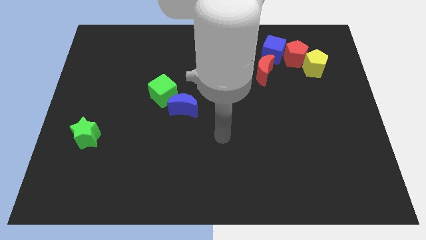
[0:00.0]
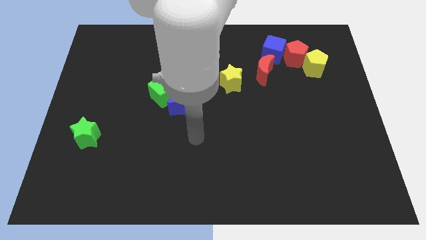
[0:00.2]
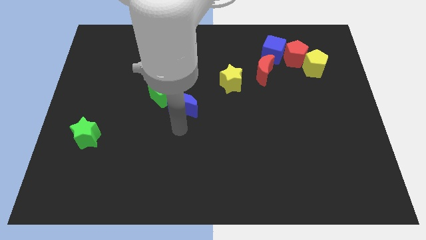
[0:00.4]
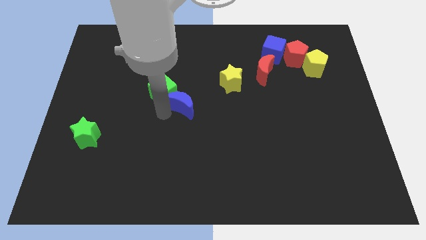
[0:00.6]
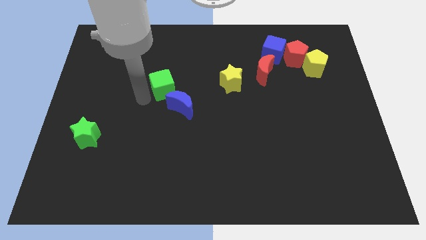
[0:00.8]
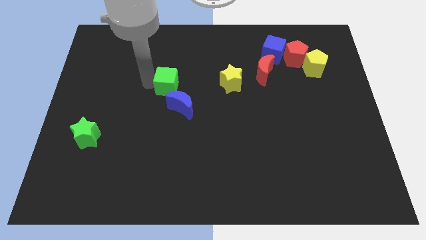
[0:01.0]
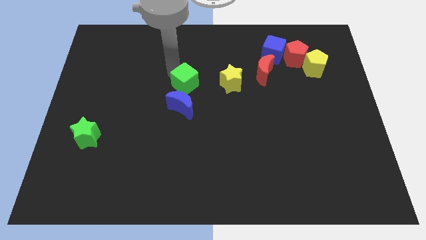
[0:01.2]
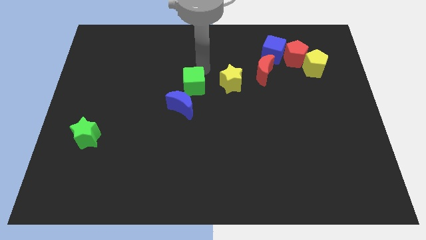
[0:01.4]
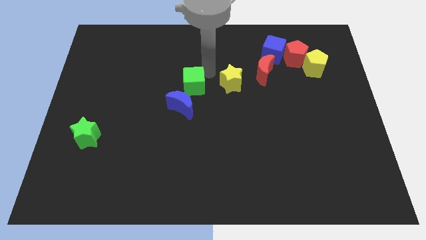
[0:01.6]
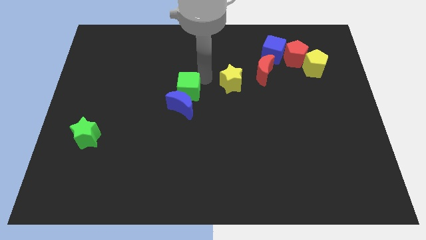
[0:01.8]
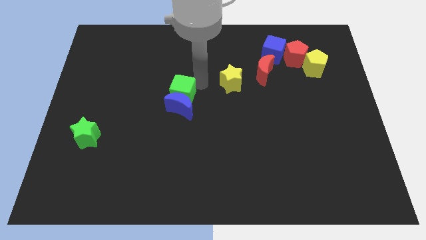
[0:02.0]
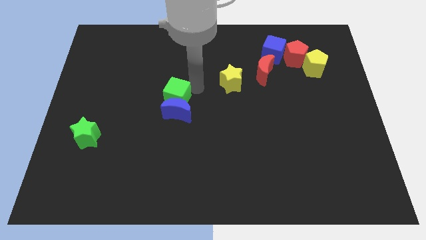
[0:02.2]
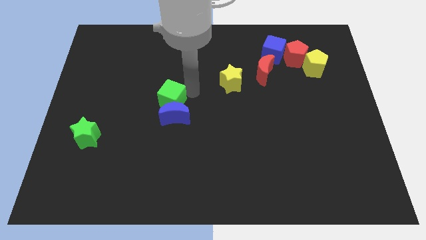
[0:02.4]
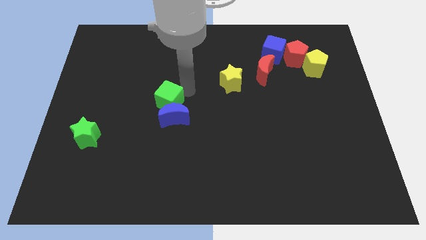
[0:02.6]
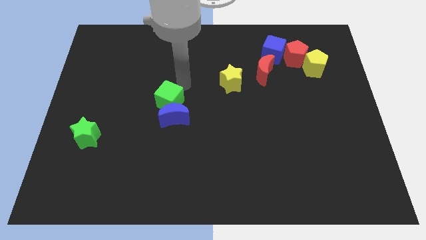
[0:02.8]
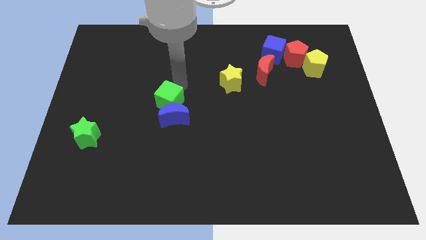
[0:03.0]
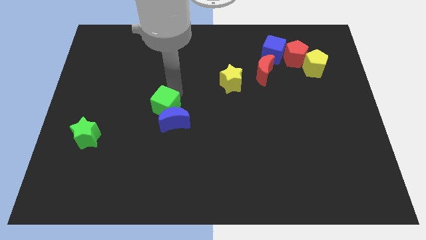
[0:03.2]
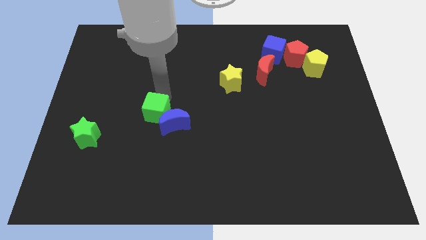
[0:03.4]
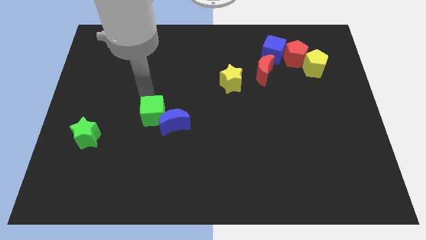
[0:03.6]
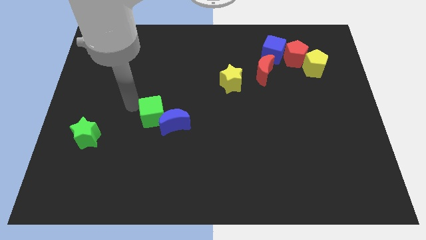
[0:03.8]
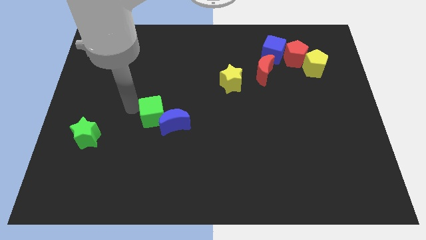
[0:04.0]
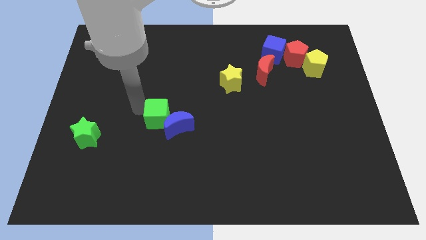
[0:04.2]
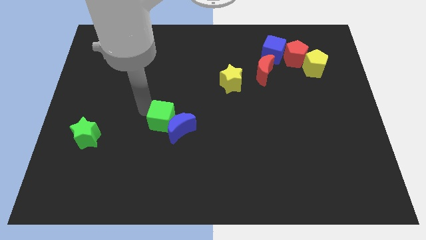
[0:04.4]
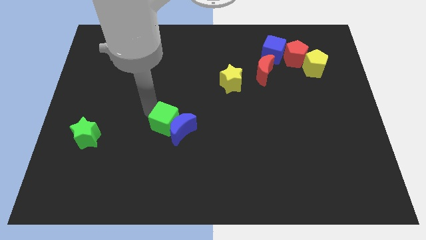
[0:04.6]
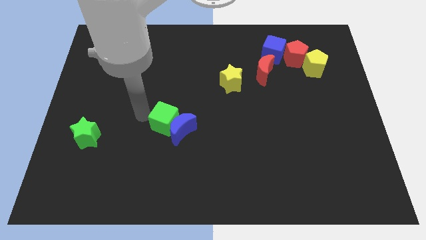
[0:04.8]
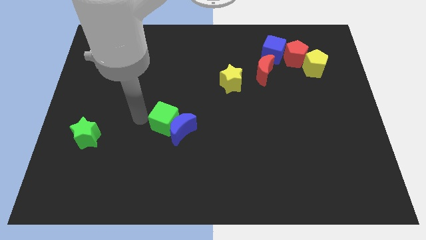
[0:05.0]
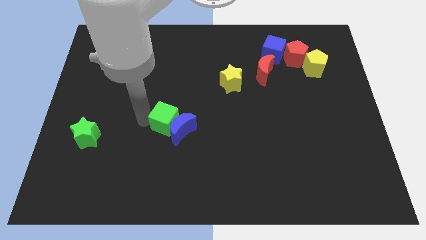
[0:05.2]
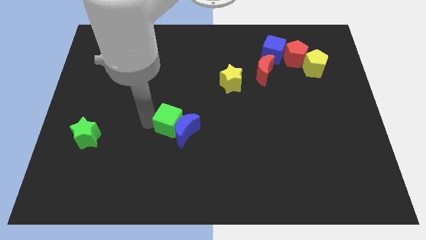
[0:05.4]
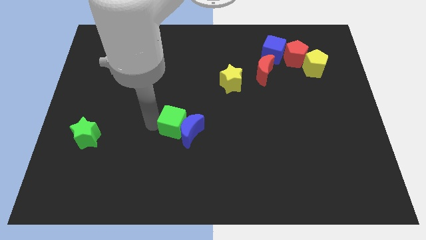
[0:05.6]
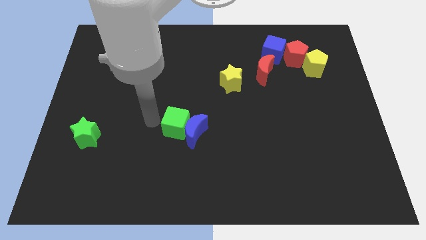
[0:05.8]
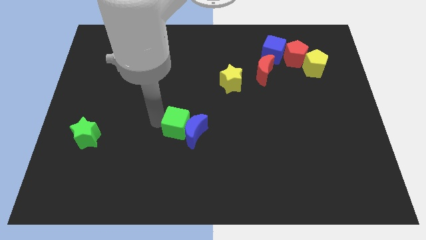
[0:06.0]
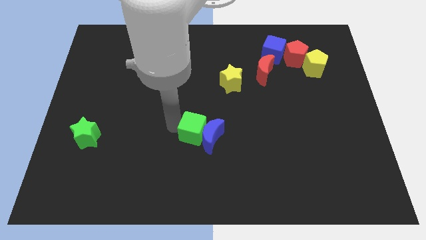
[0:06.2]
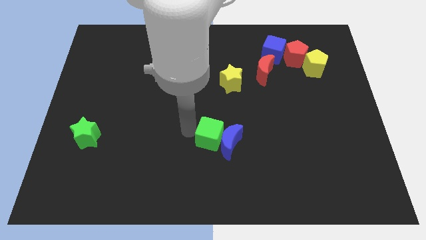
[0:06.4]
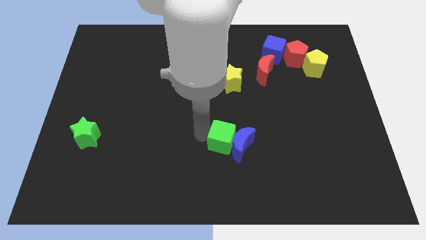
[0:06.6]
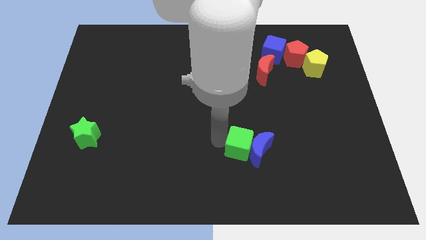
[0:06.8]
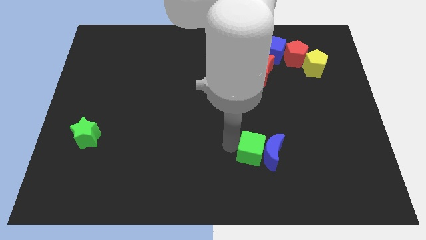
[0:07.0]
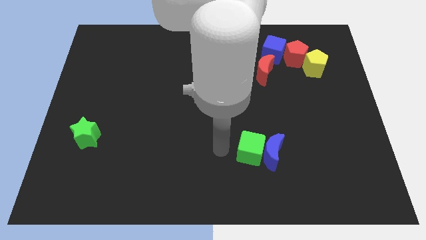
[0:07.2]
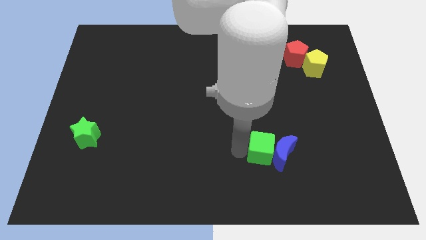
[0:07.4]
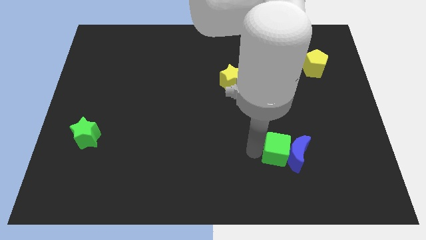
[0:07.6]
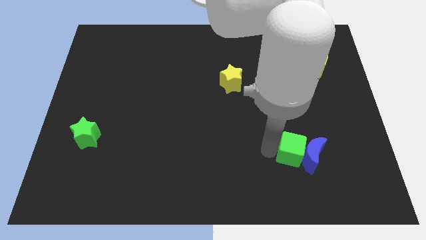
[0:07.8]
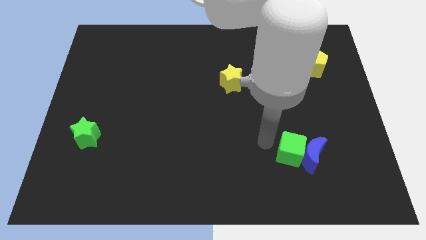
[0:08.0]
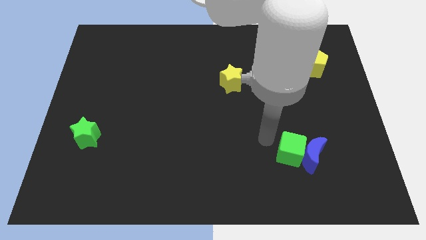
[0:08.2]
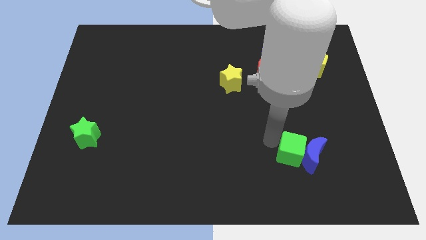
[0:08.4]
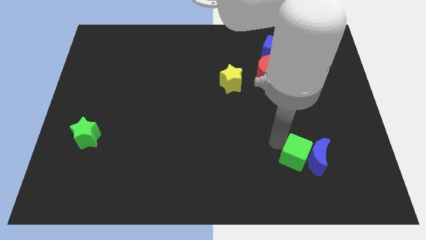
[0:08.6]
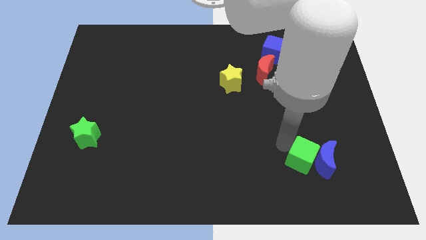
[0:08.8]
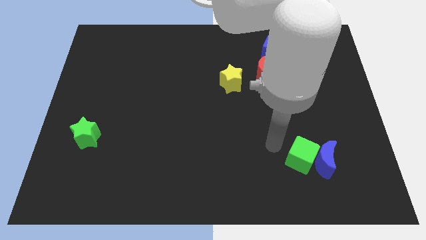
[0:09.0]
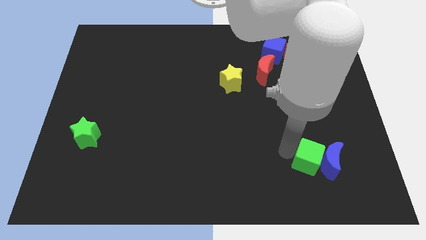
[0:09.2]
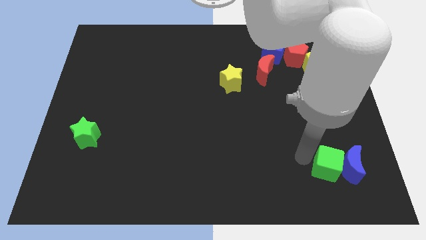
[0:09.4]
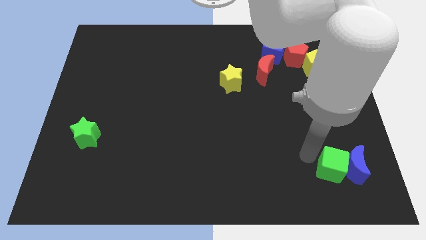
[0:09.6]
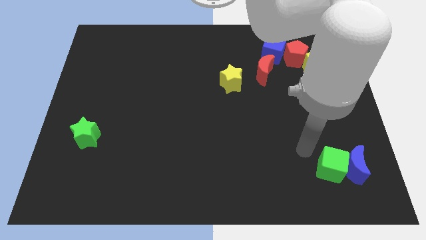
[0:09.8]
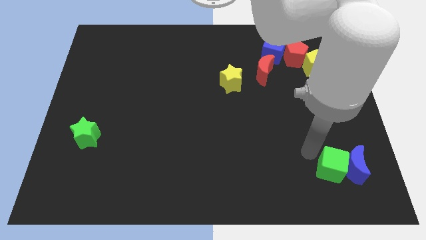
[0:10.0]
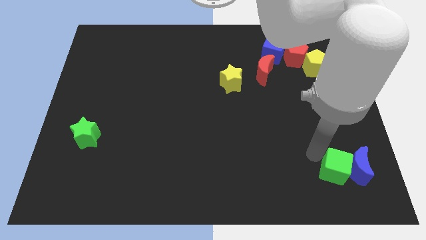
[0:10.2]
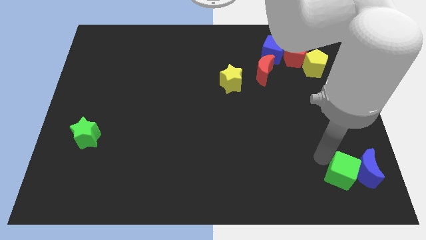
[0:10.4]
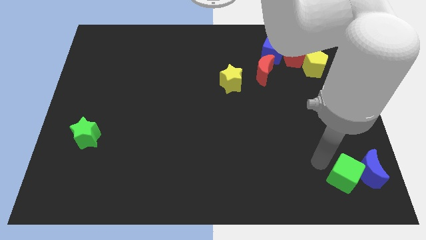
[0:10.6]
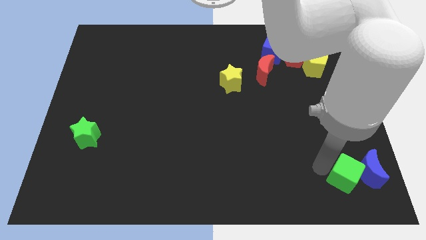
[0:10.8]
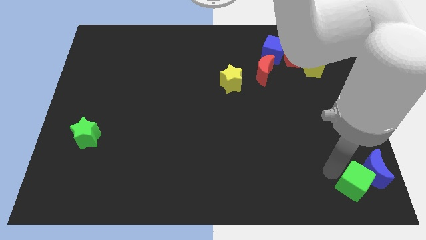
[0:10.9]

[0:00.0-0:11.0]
put the green cube to the bottom right of the board

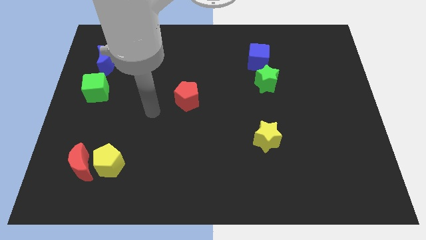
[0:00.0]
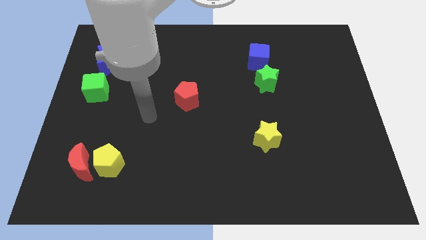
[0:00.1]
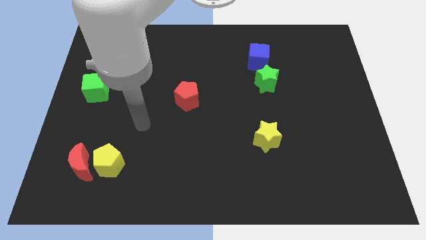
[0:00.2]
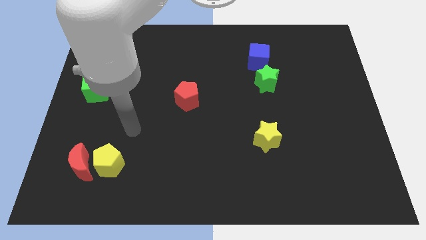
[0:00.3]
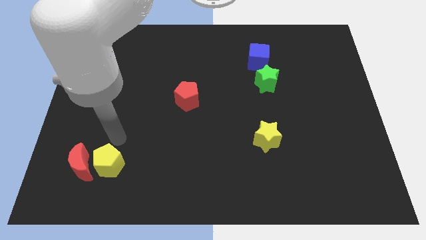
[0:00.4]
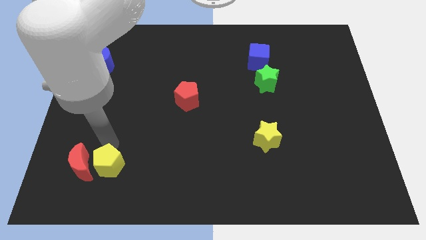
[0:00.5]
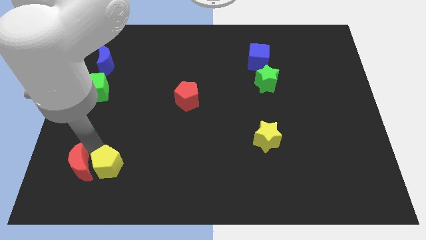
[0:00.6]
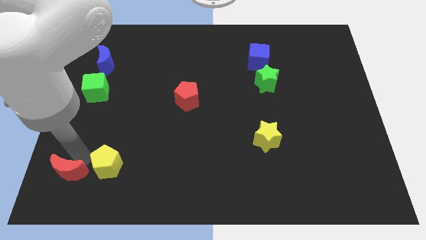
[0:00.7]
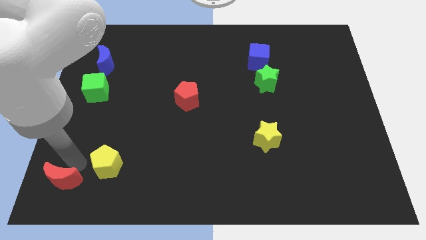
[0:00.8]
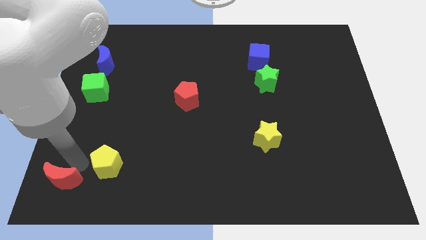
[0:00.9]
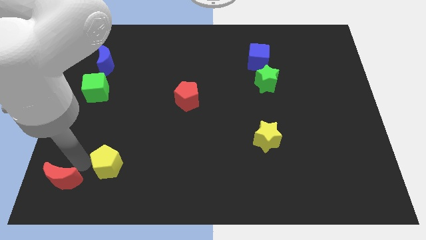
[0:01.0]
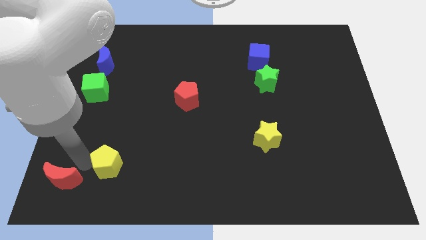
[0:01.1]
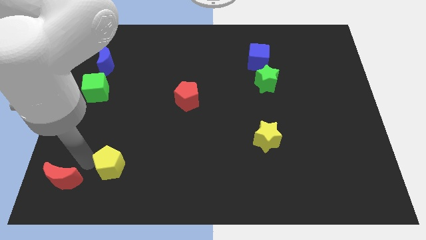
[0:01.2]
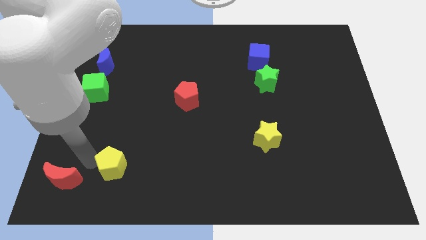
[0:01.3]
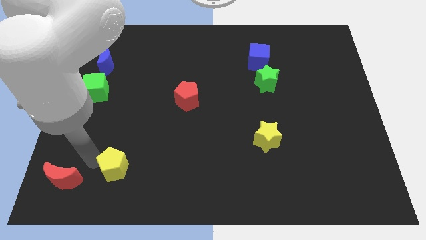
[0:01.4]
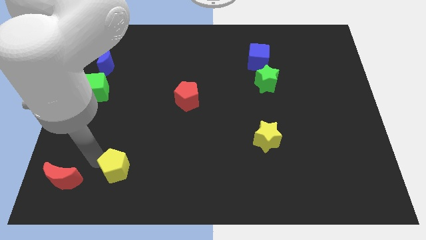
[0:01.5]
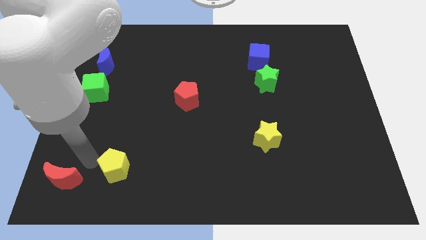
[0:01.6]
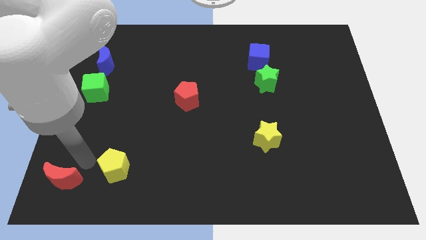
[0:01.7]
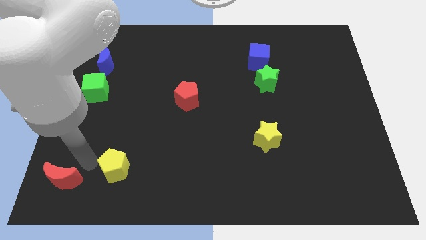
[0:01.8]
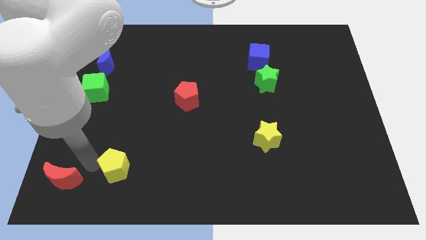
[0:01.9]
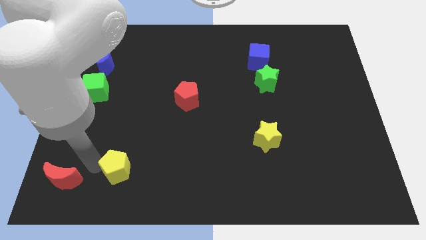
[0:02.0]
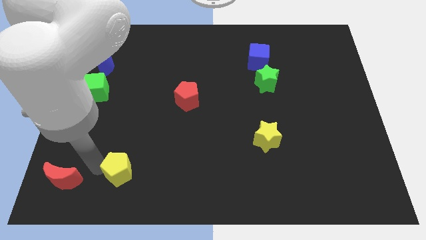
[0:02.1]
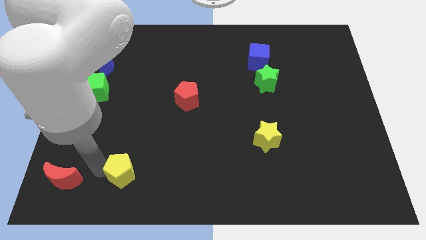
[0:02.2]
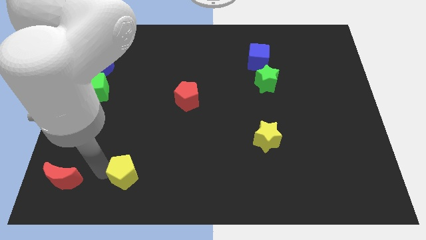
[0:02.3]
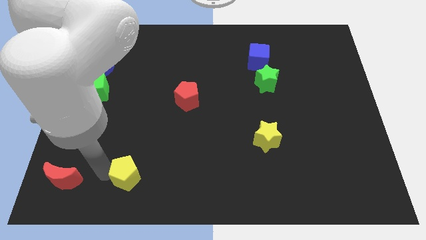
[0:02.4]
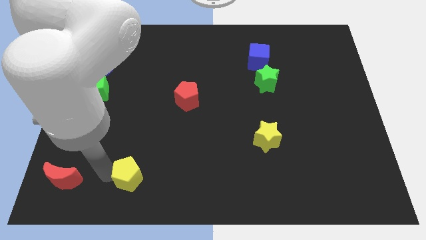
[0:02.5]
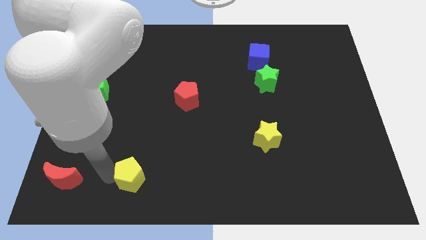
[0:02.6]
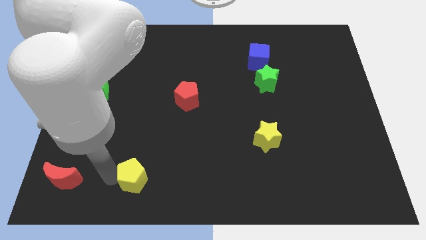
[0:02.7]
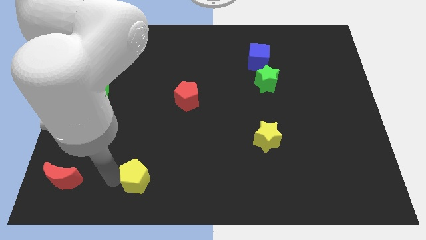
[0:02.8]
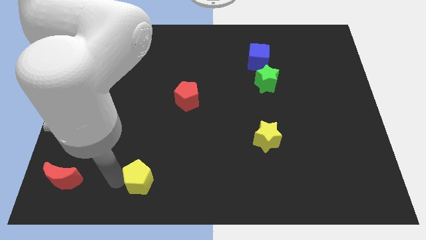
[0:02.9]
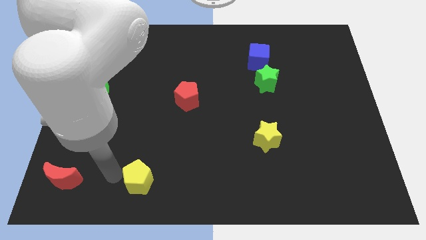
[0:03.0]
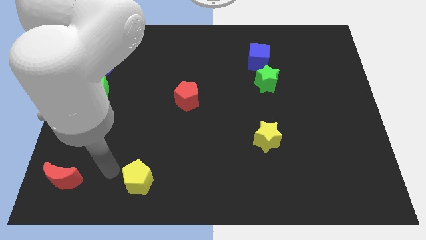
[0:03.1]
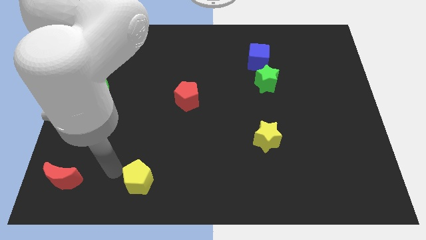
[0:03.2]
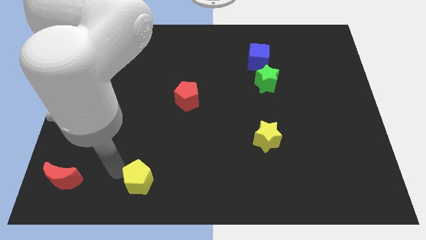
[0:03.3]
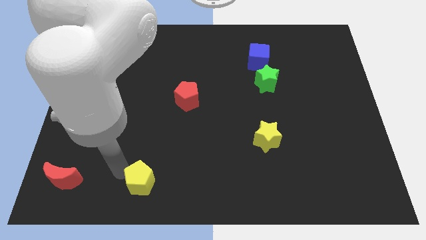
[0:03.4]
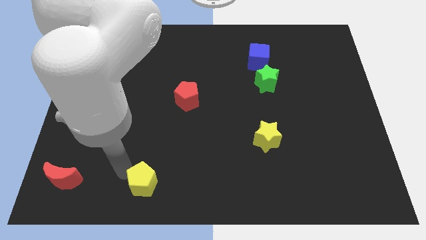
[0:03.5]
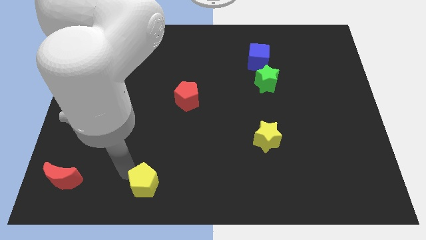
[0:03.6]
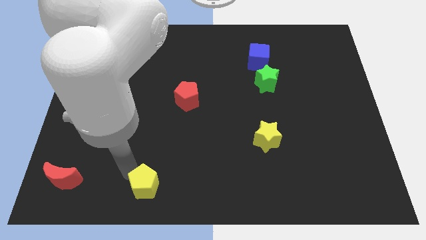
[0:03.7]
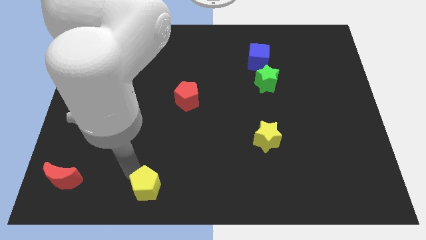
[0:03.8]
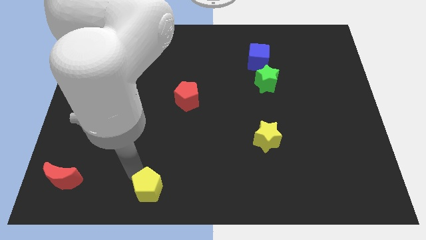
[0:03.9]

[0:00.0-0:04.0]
put the yellow pentagon to the bottom side
